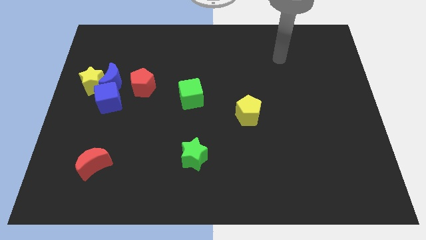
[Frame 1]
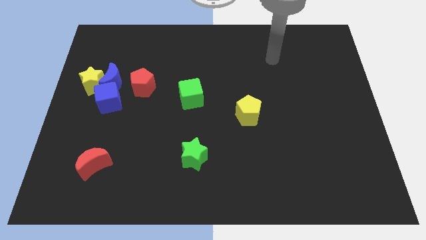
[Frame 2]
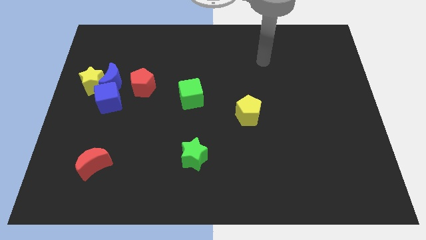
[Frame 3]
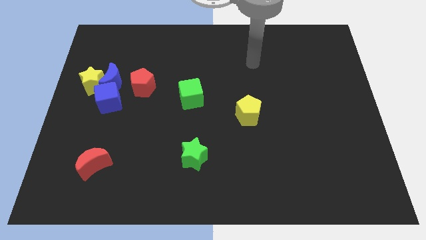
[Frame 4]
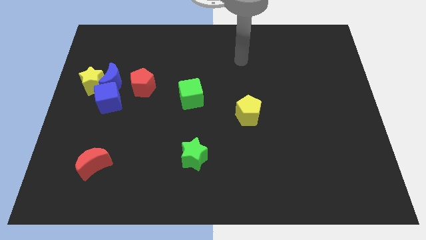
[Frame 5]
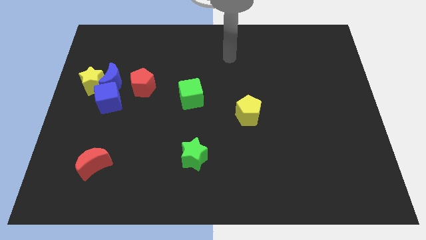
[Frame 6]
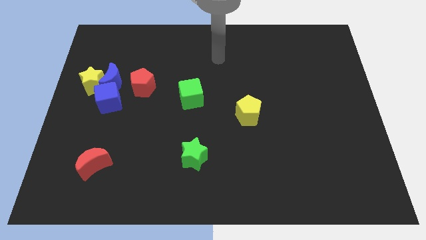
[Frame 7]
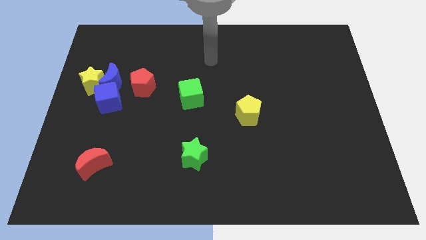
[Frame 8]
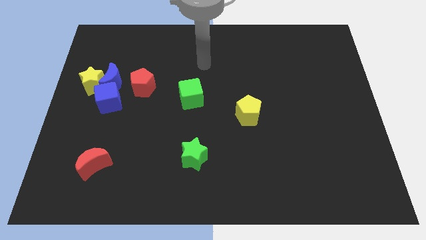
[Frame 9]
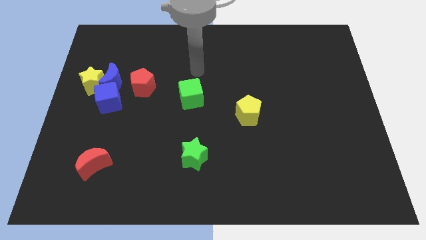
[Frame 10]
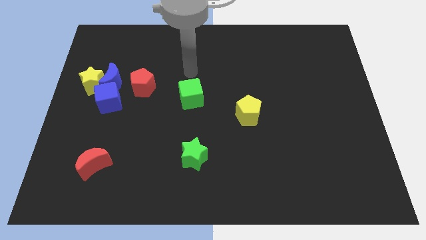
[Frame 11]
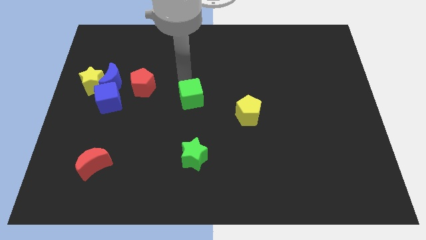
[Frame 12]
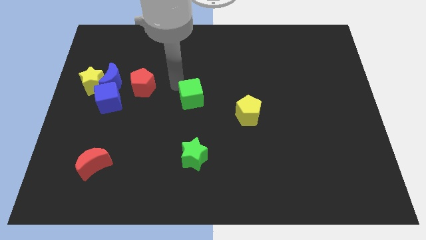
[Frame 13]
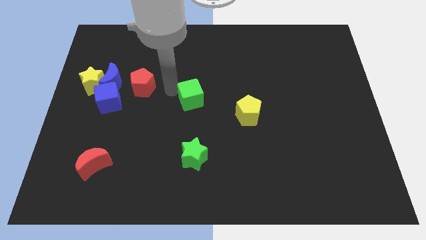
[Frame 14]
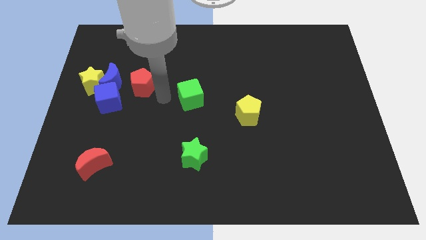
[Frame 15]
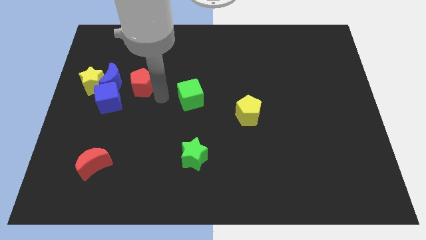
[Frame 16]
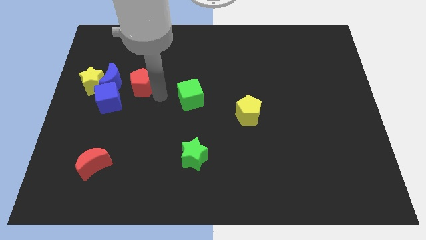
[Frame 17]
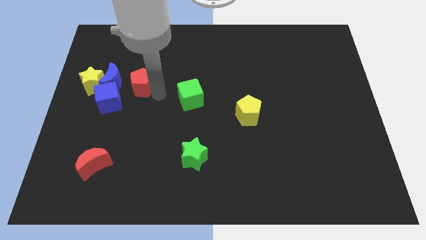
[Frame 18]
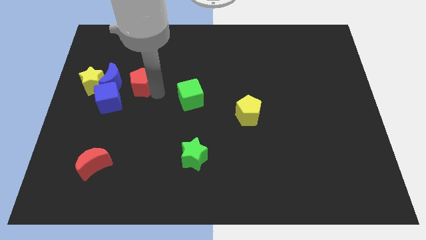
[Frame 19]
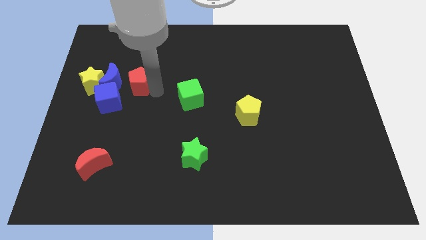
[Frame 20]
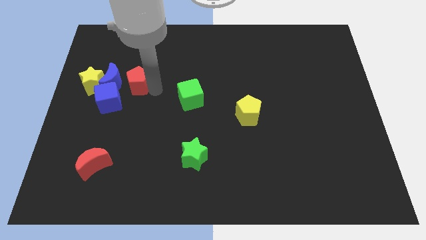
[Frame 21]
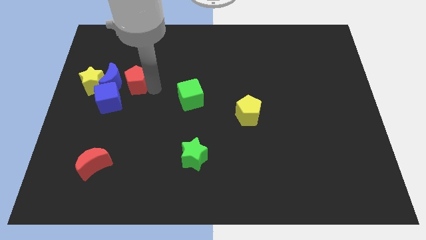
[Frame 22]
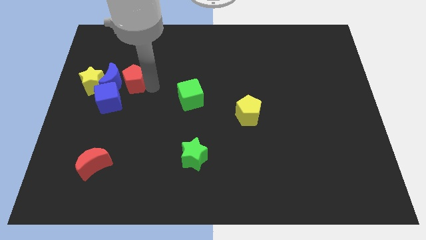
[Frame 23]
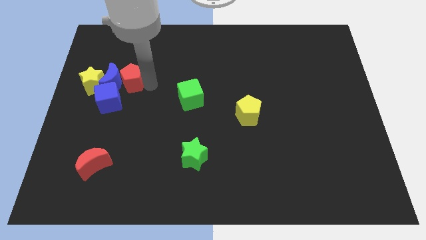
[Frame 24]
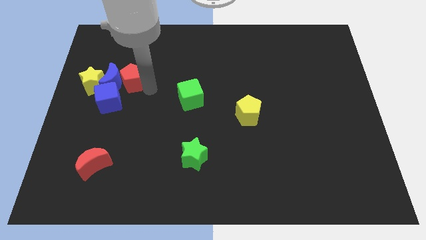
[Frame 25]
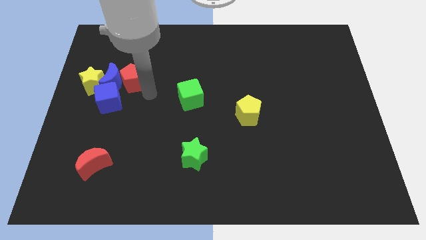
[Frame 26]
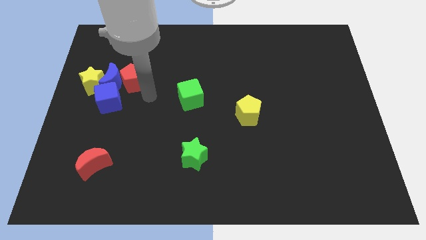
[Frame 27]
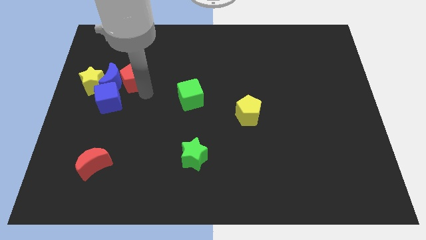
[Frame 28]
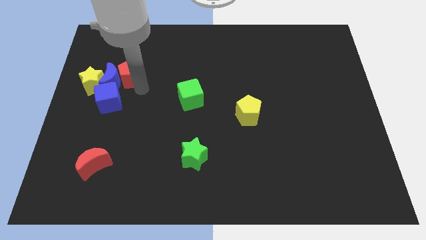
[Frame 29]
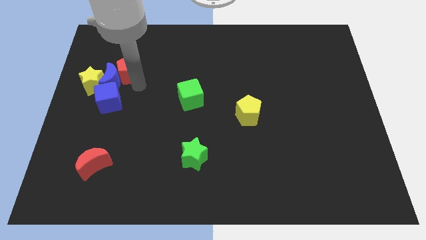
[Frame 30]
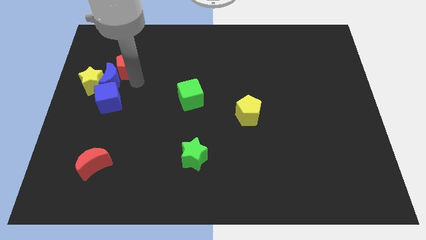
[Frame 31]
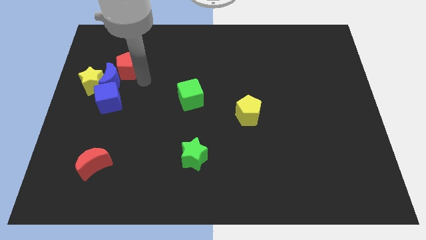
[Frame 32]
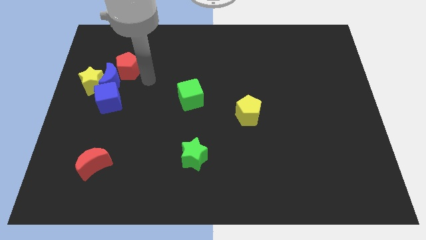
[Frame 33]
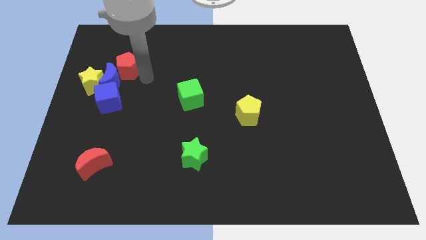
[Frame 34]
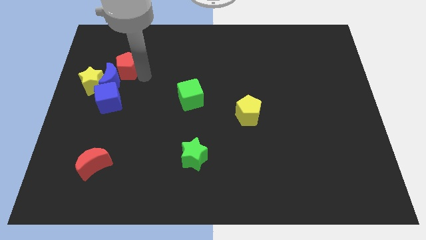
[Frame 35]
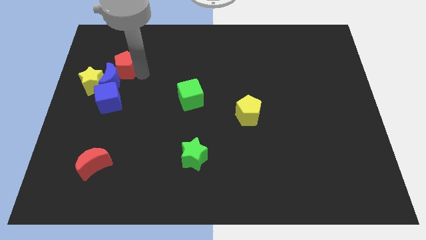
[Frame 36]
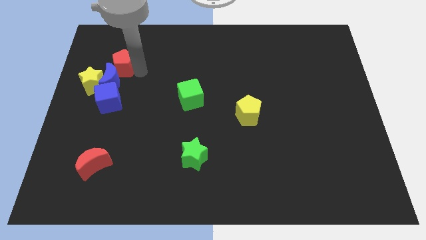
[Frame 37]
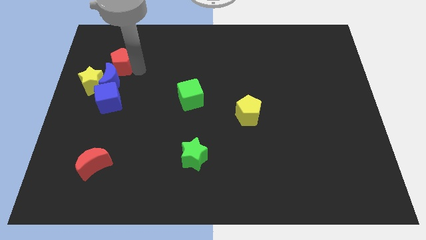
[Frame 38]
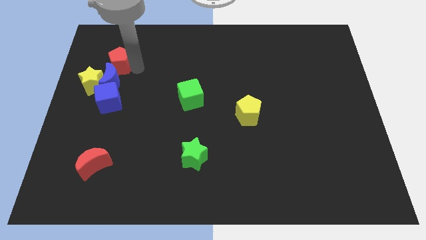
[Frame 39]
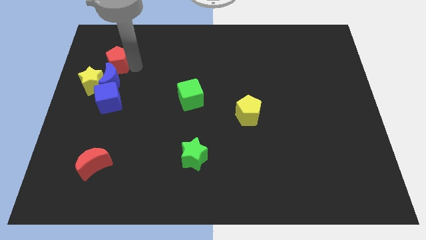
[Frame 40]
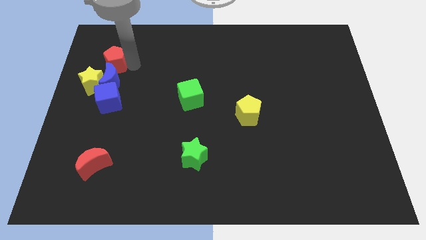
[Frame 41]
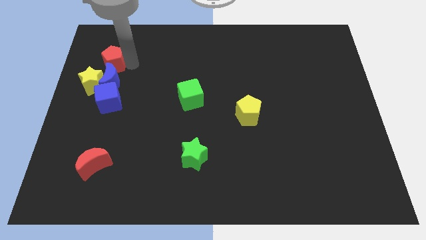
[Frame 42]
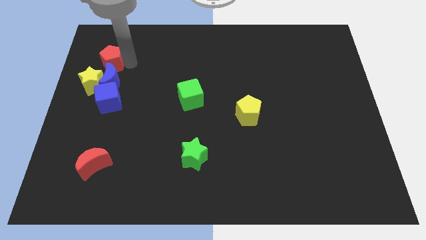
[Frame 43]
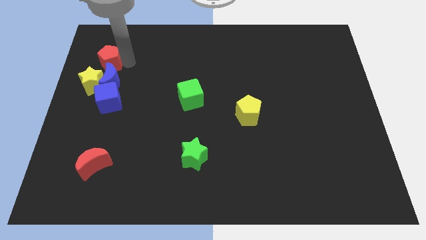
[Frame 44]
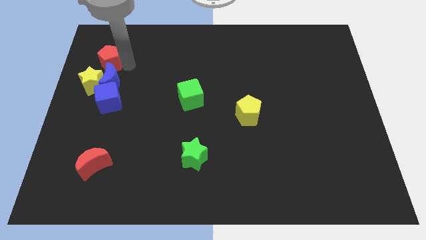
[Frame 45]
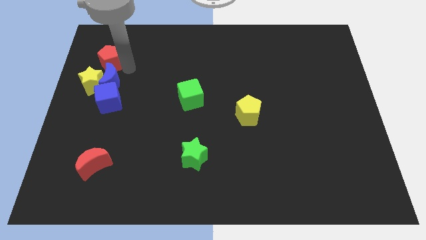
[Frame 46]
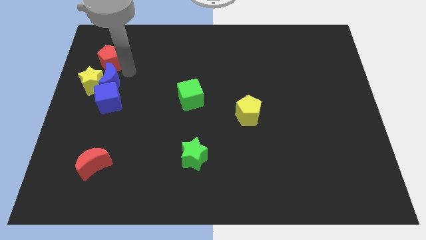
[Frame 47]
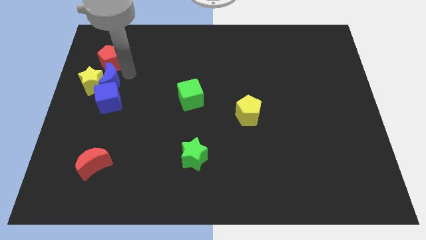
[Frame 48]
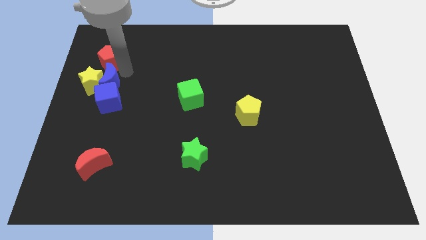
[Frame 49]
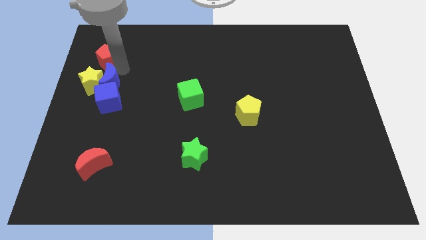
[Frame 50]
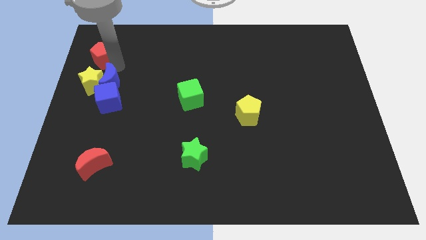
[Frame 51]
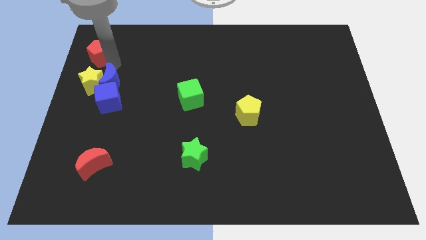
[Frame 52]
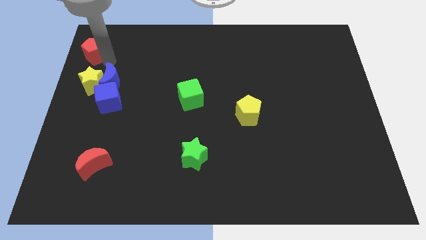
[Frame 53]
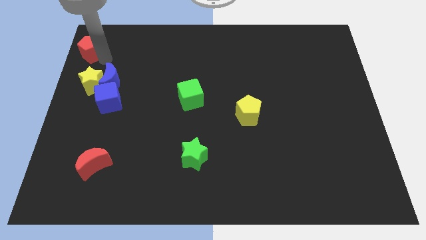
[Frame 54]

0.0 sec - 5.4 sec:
push the red pentagon to the top left of the board
